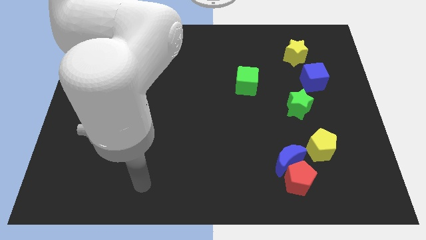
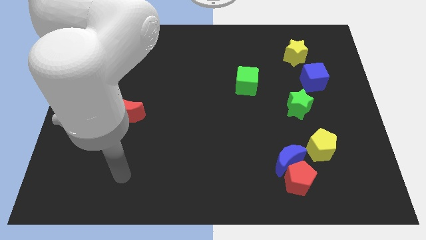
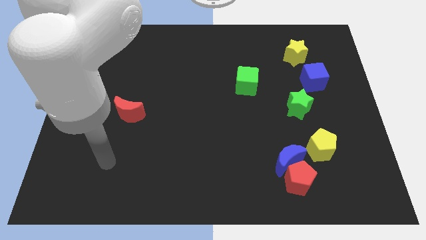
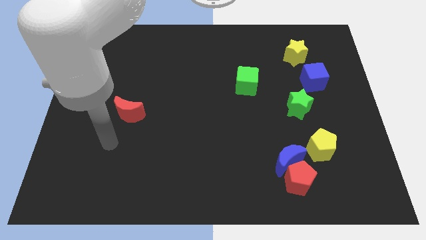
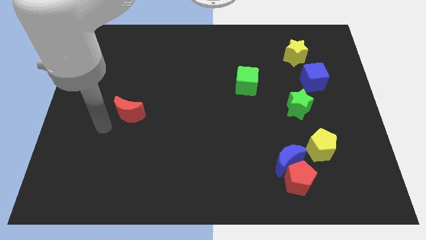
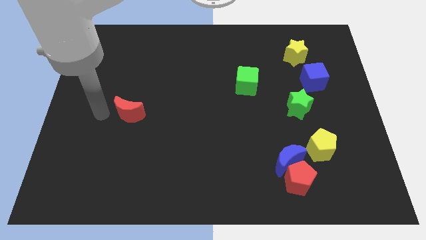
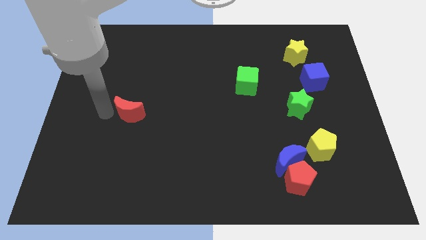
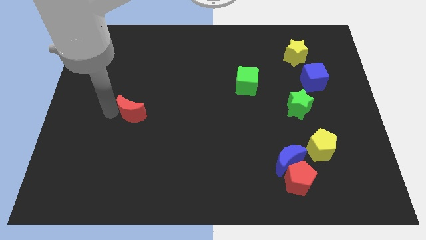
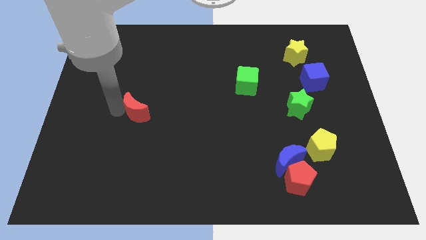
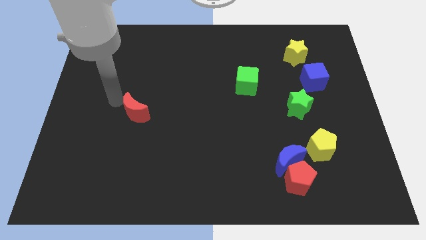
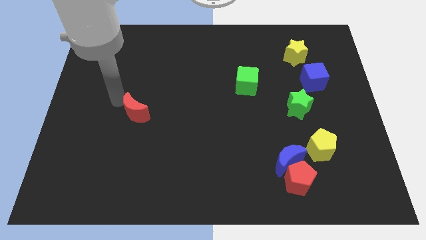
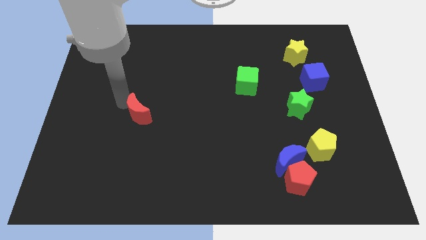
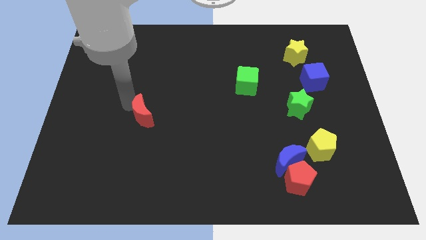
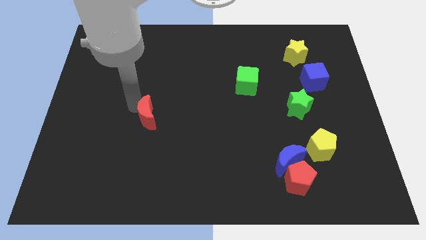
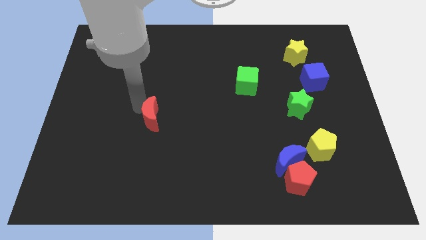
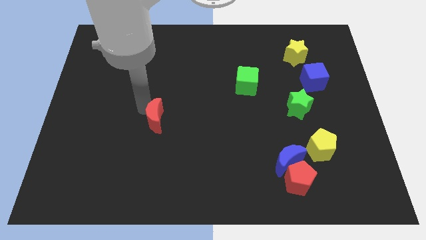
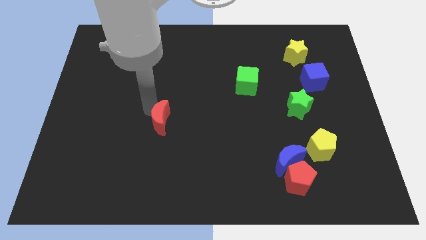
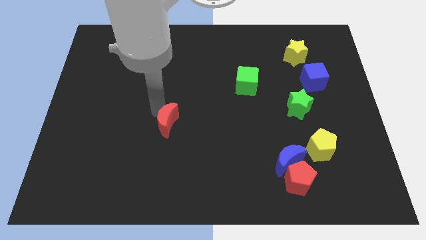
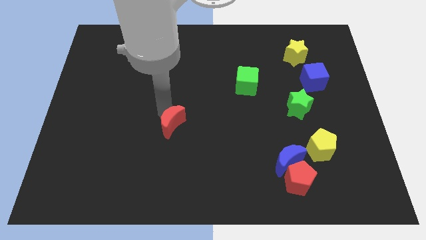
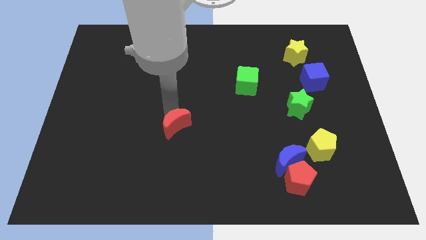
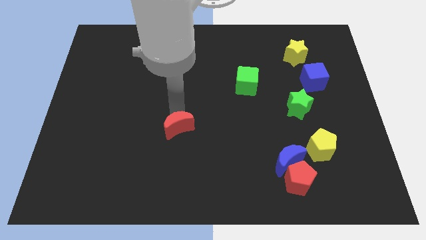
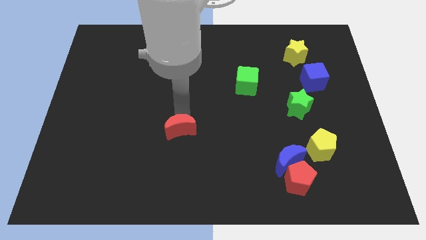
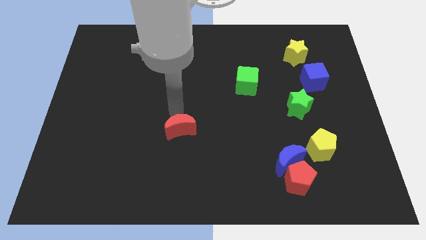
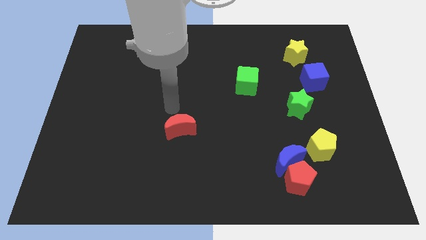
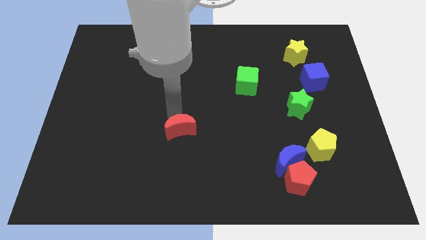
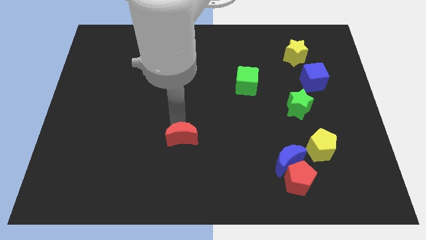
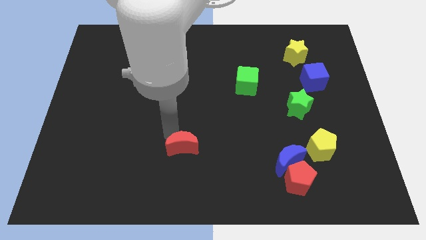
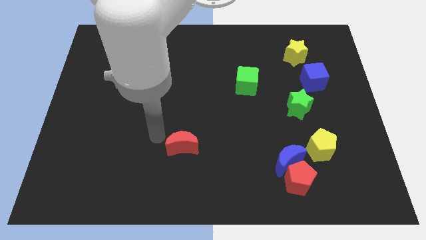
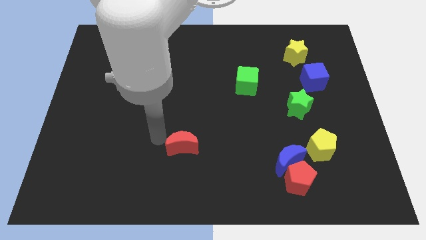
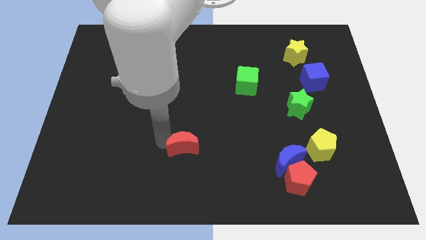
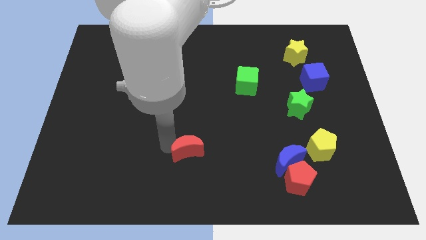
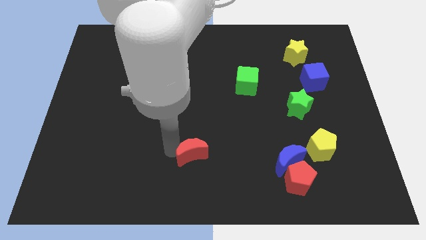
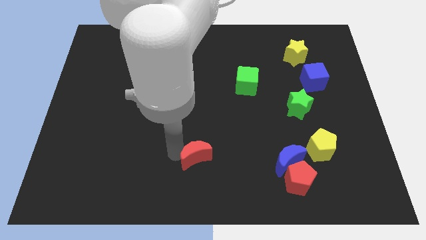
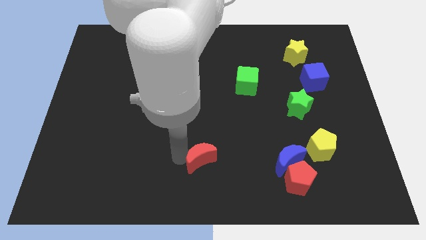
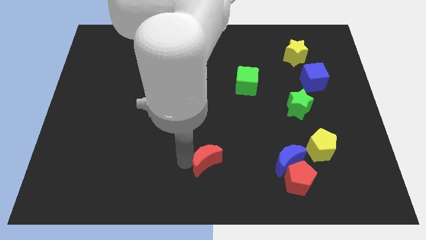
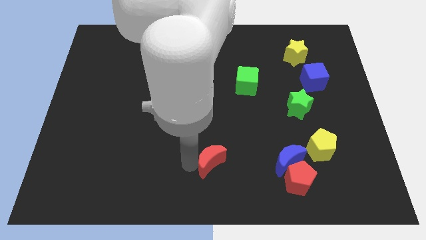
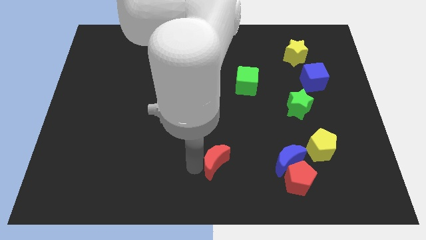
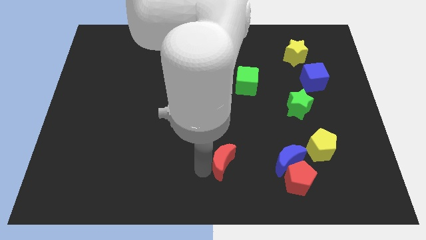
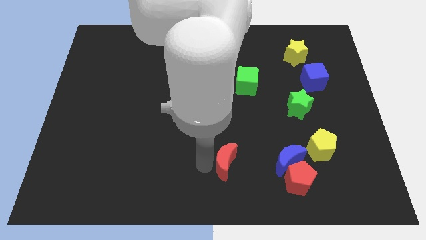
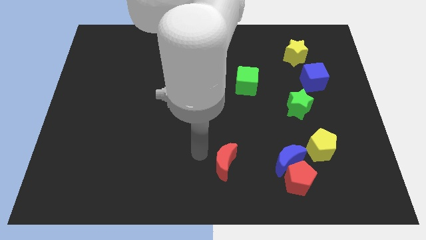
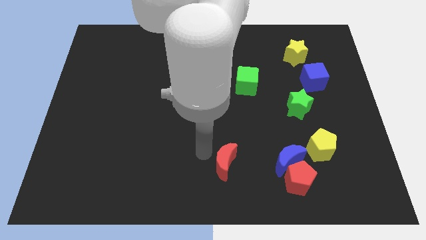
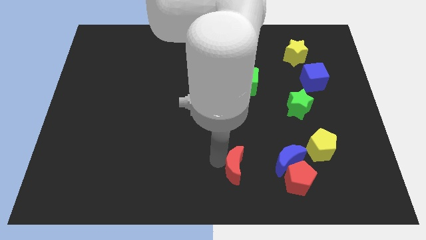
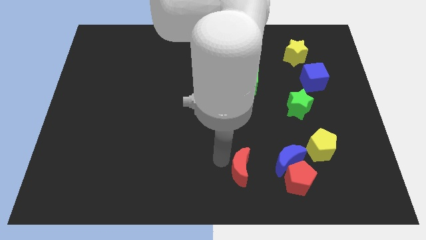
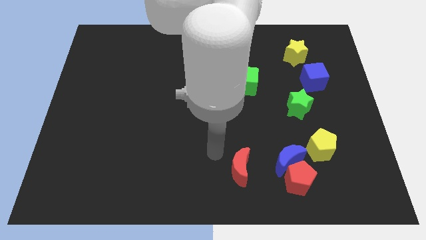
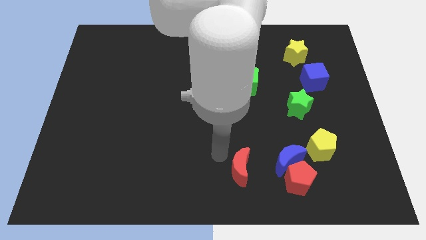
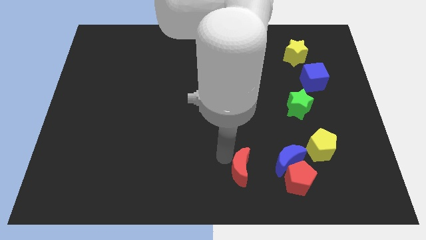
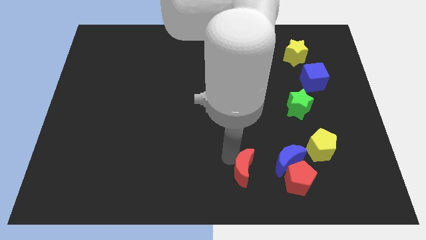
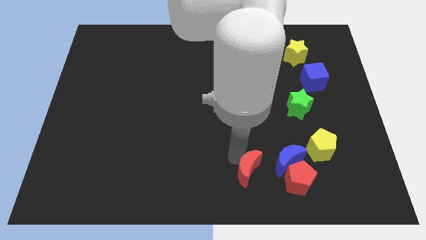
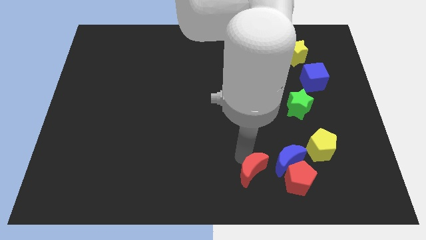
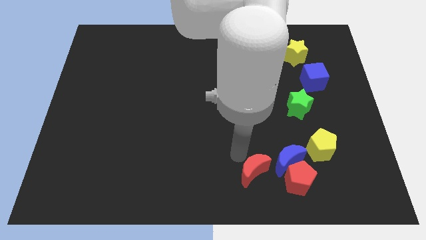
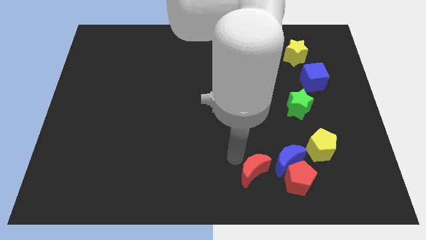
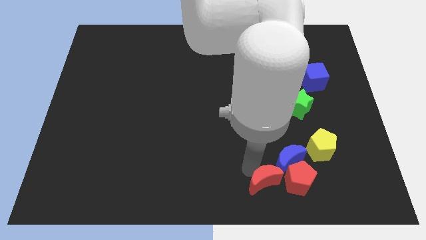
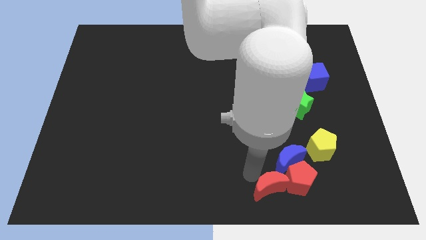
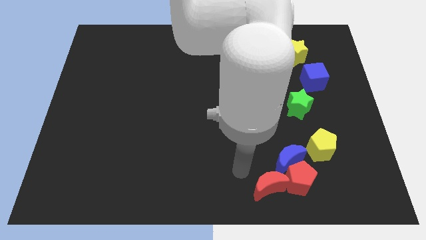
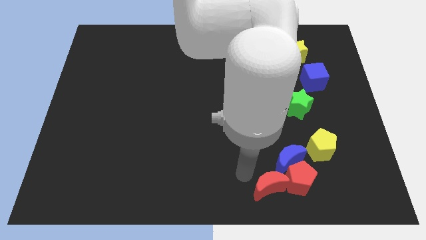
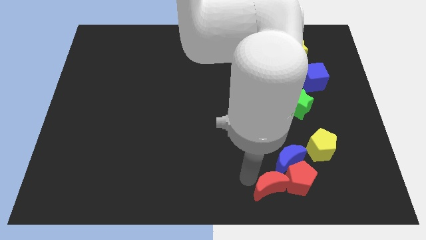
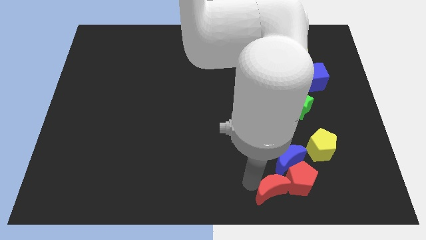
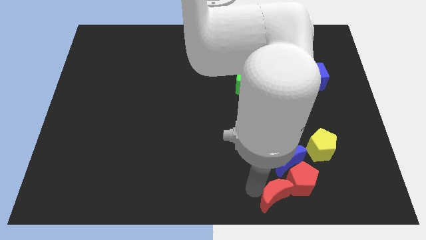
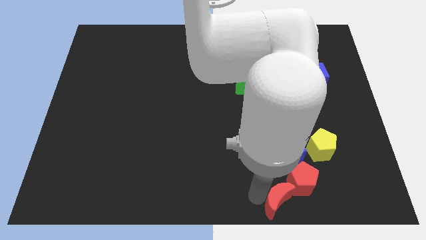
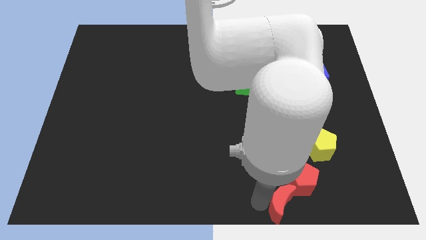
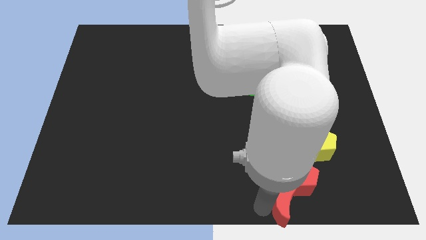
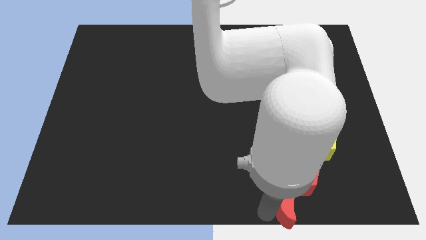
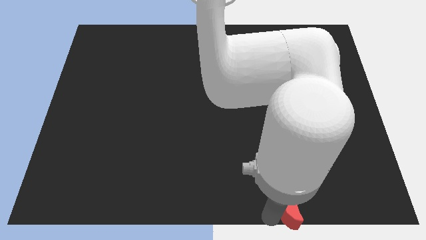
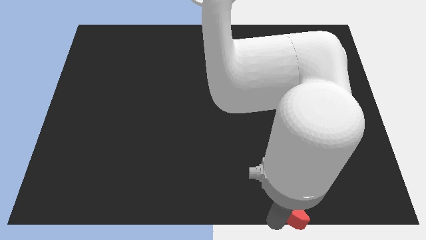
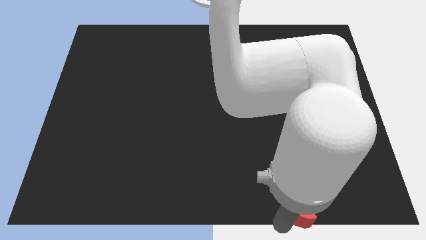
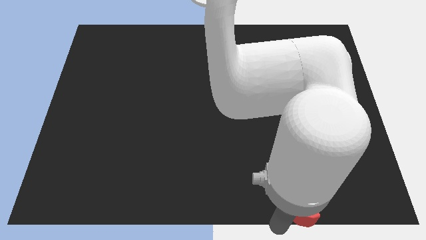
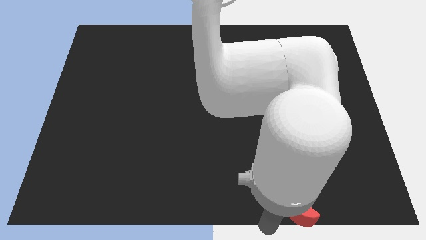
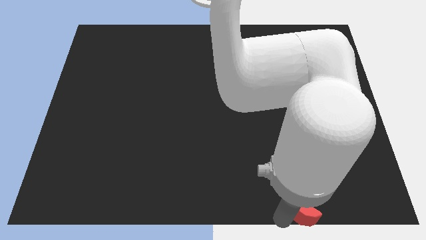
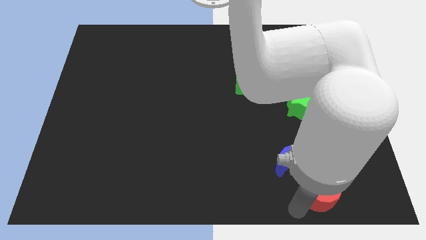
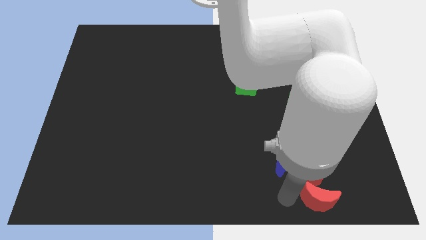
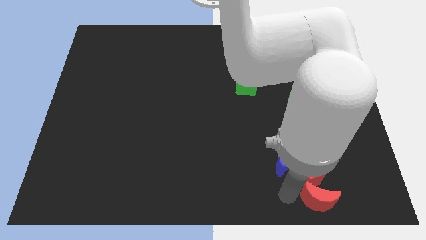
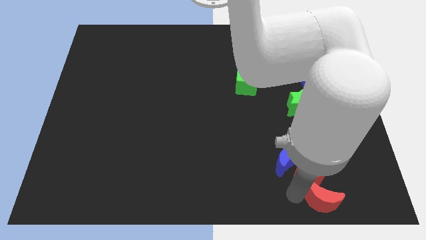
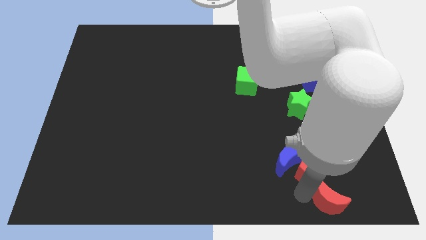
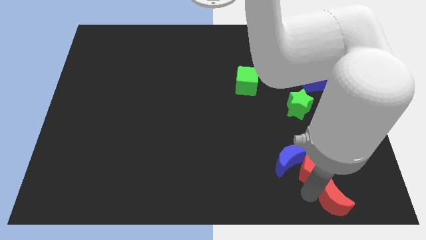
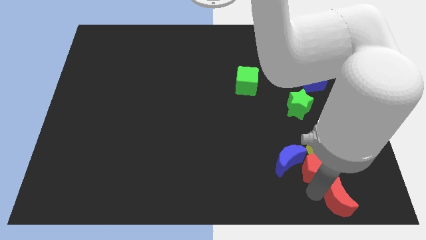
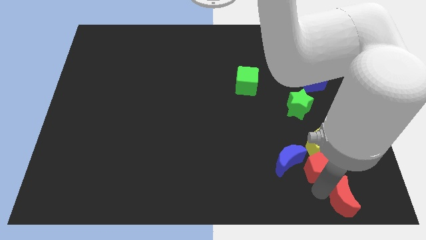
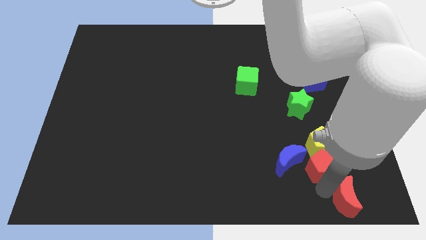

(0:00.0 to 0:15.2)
push the red moon to the lower right corner
